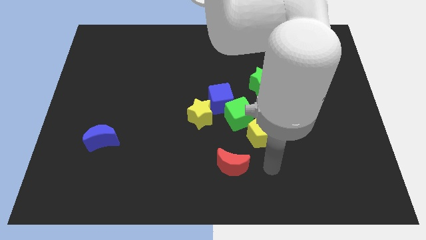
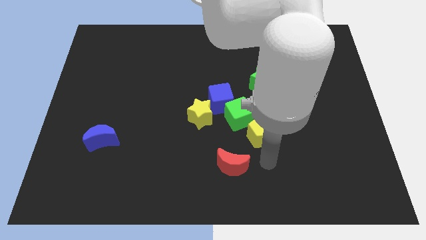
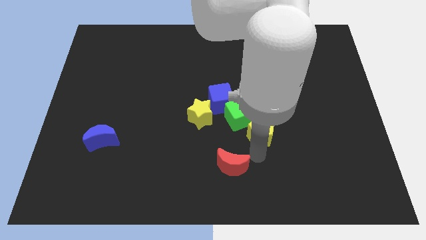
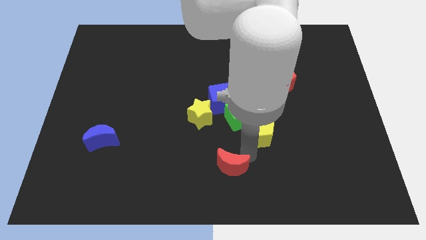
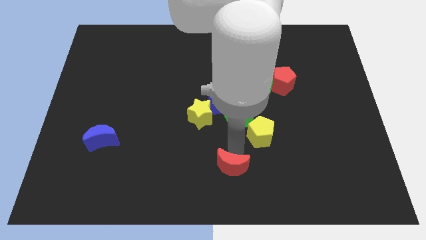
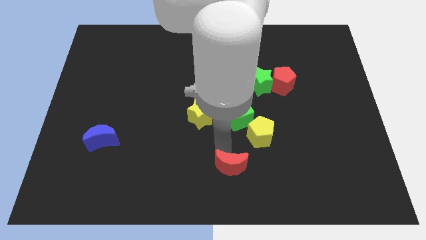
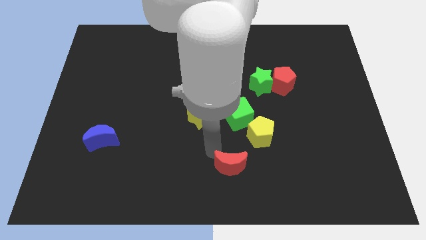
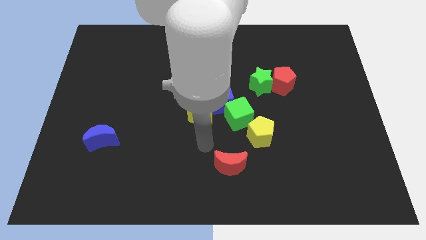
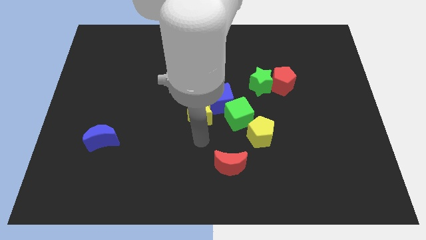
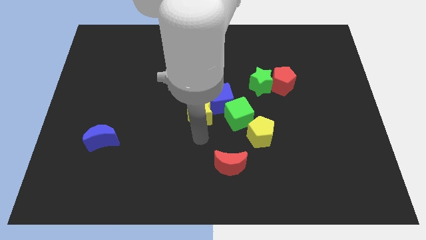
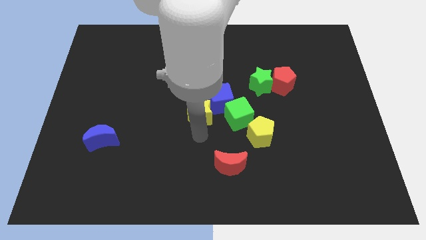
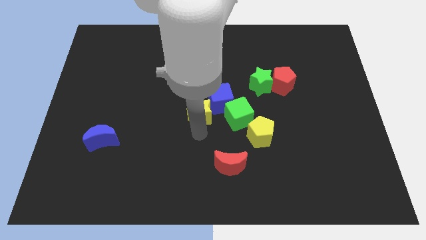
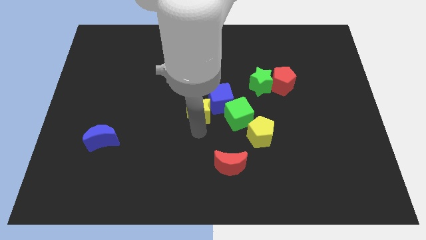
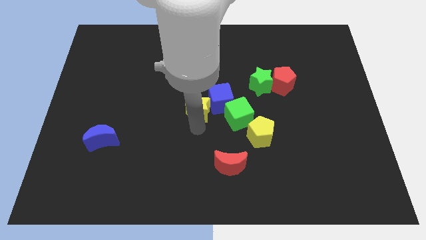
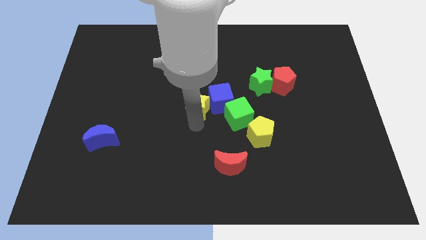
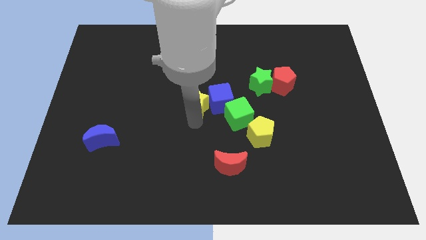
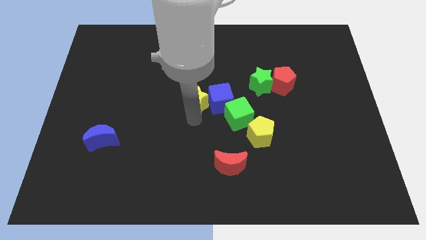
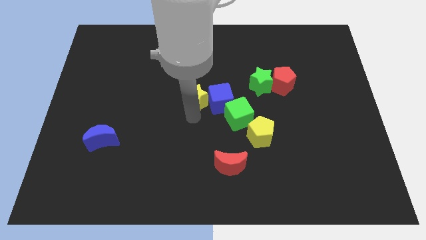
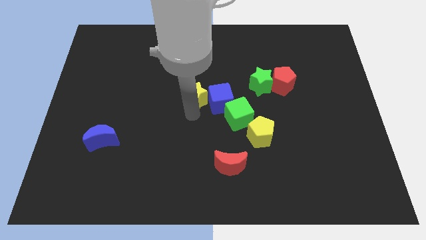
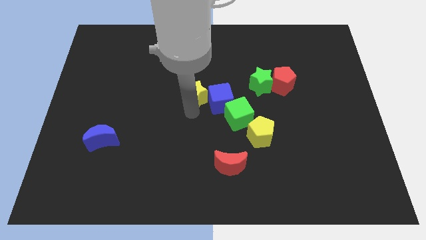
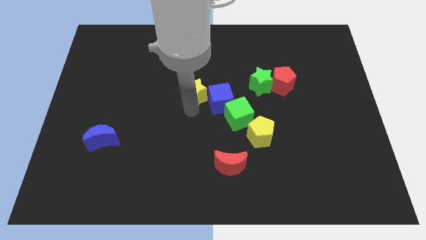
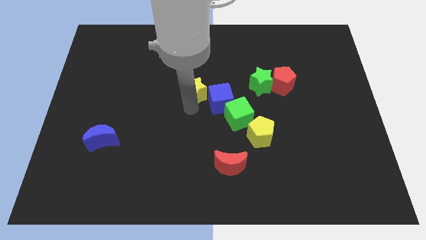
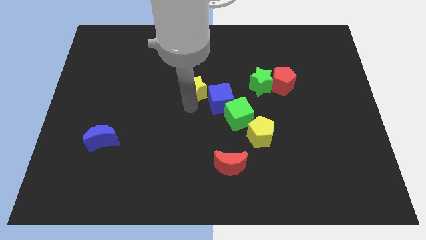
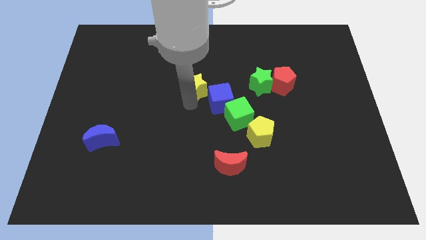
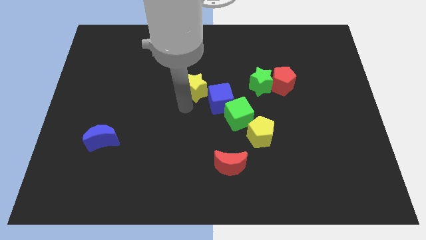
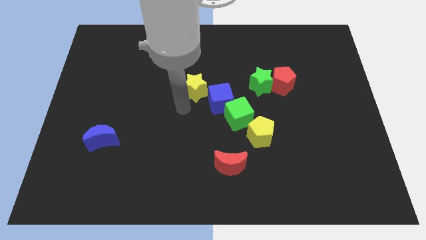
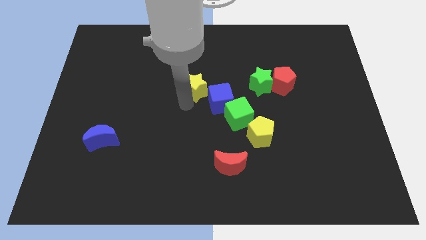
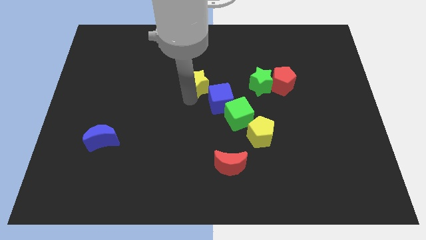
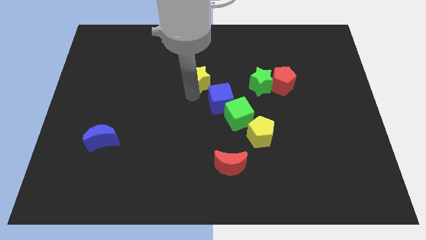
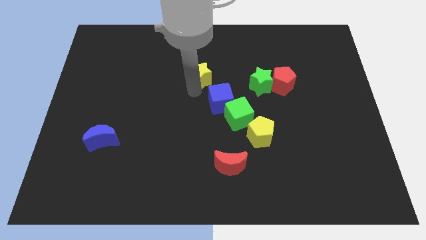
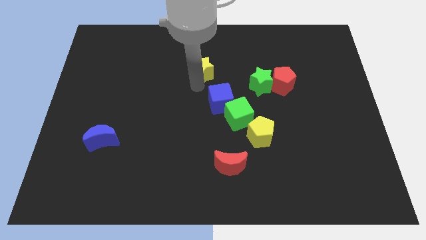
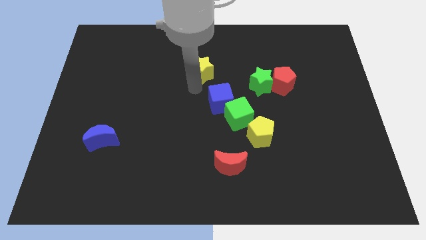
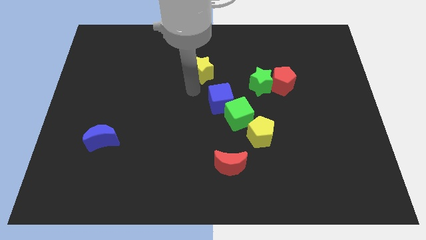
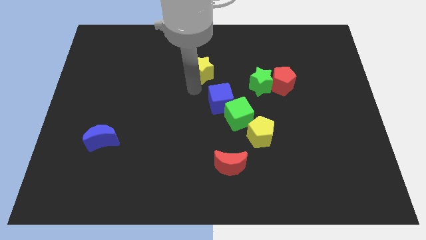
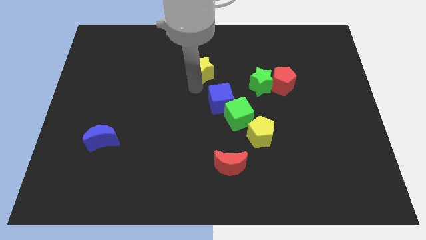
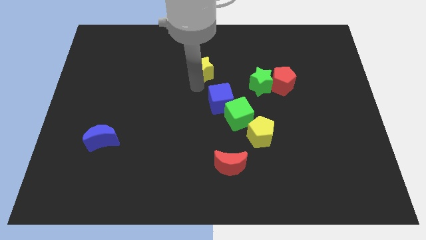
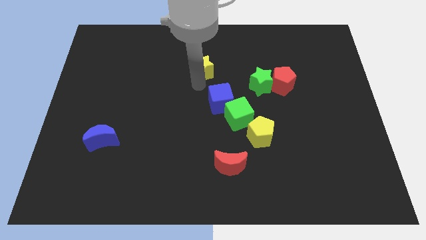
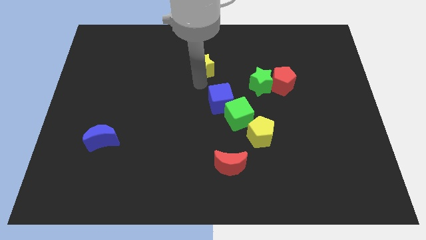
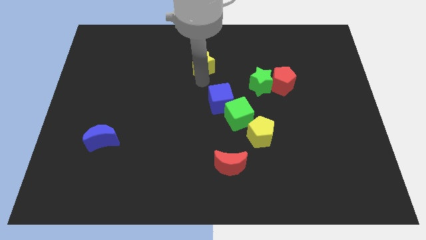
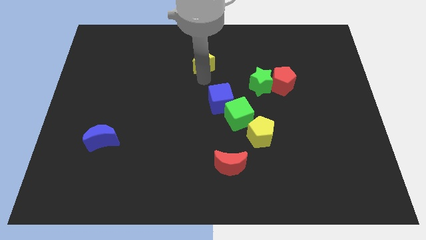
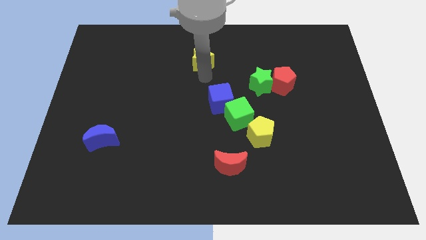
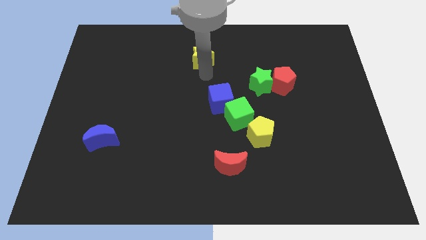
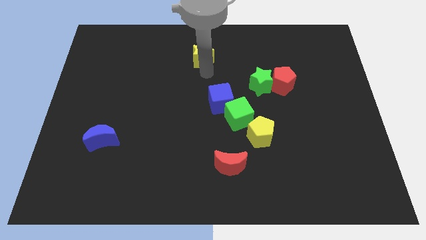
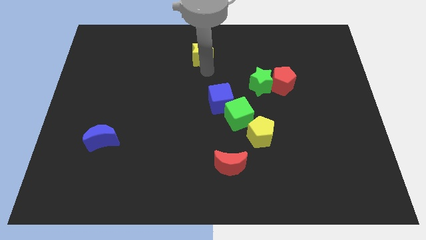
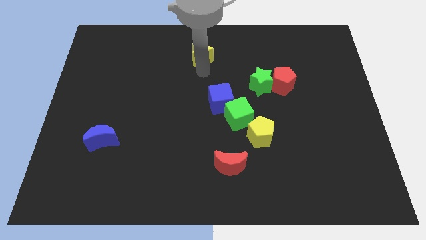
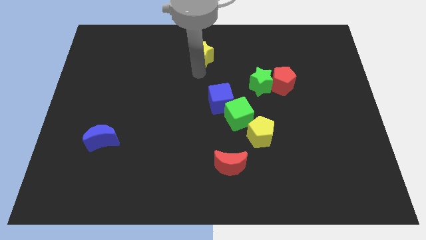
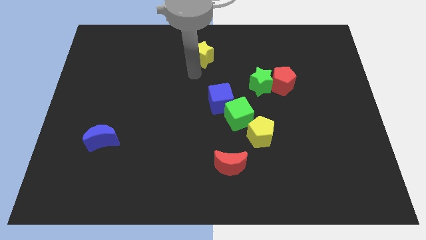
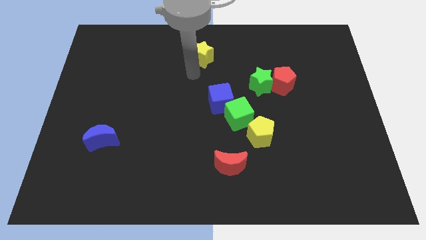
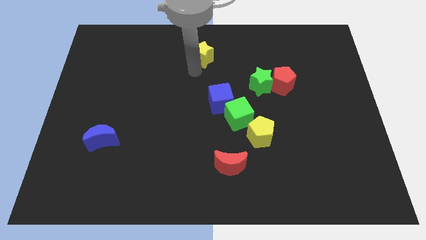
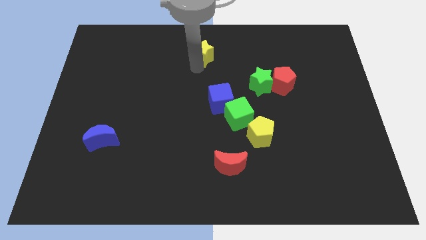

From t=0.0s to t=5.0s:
put the yellow star to the towards your base
